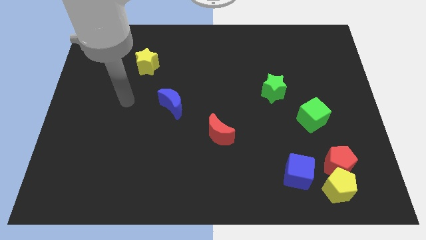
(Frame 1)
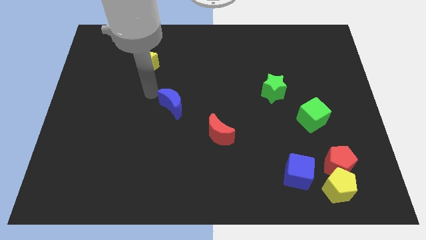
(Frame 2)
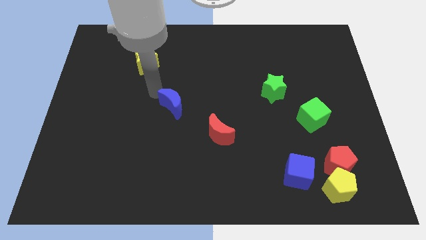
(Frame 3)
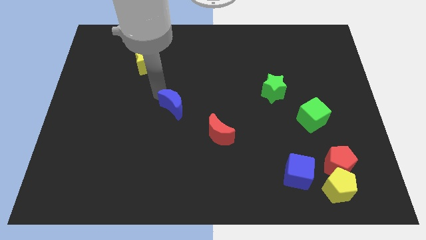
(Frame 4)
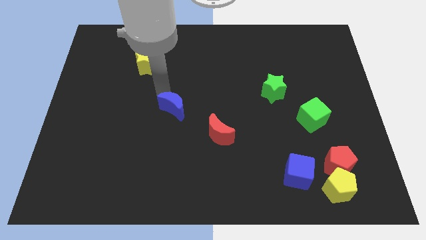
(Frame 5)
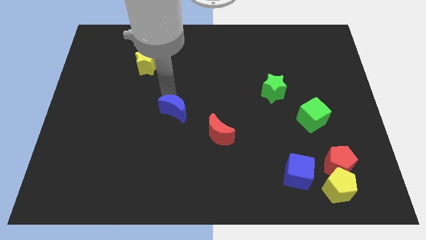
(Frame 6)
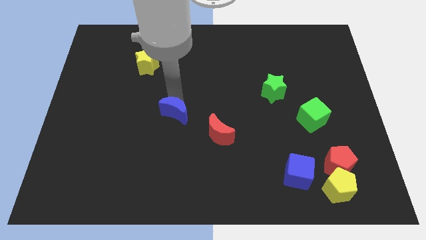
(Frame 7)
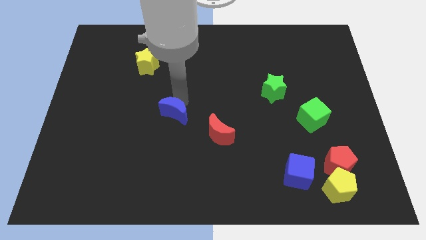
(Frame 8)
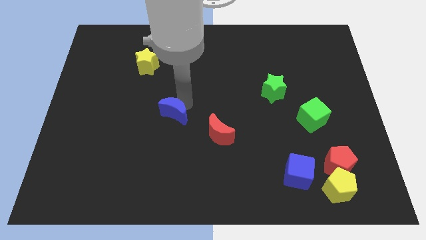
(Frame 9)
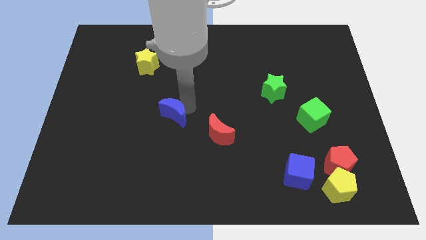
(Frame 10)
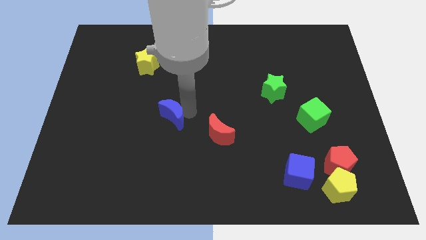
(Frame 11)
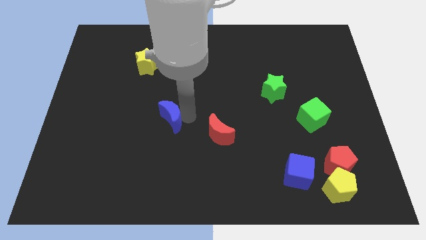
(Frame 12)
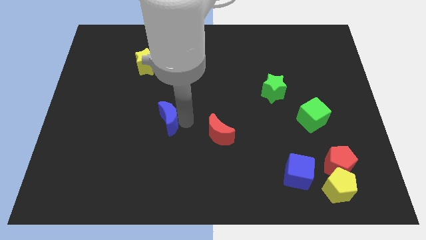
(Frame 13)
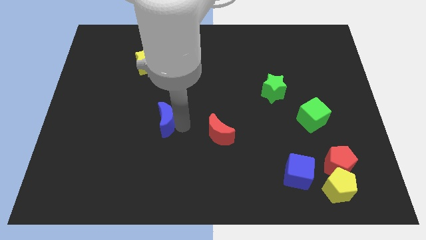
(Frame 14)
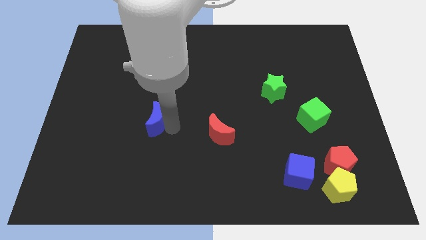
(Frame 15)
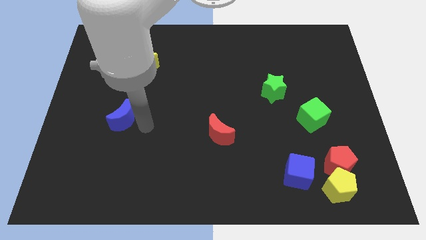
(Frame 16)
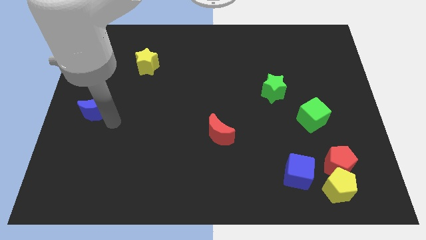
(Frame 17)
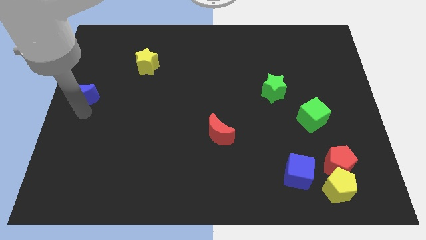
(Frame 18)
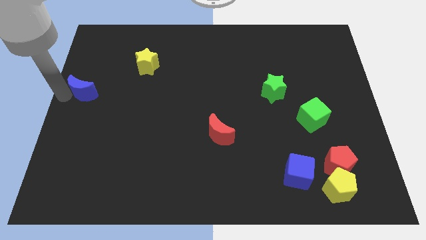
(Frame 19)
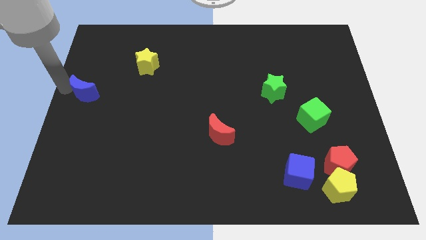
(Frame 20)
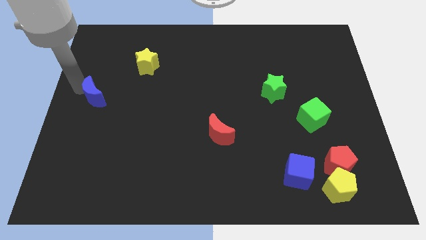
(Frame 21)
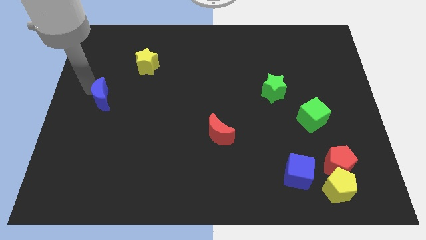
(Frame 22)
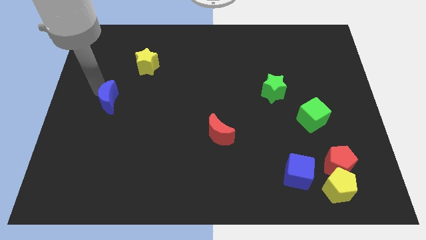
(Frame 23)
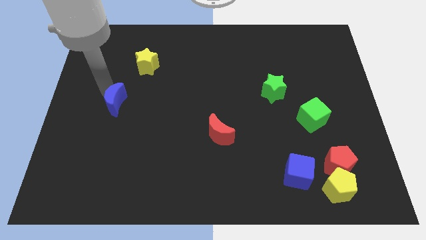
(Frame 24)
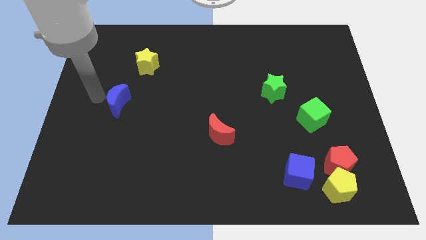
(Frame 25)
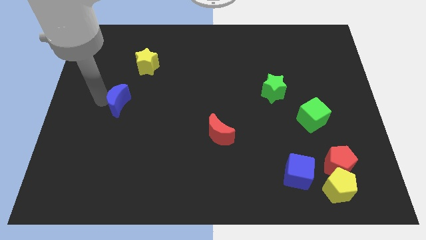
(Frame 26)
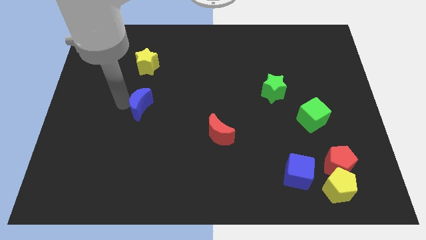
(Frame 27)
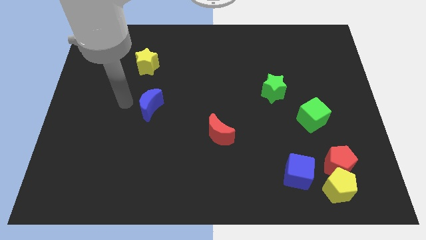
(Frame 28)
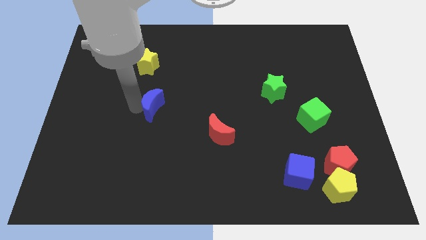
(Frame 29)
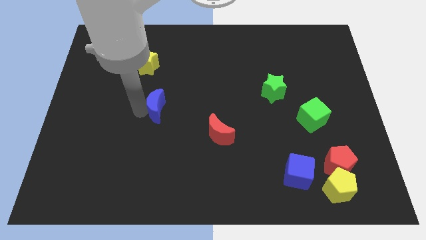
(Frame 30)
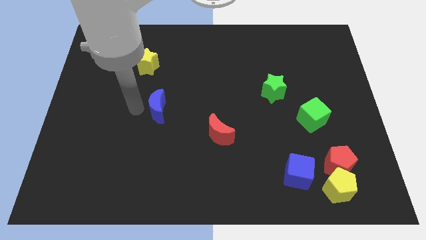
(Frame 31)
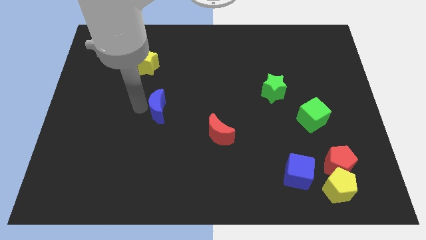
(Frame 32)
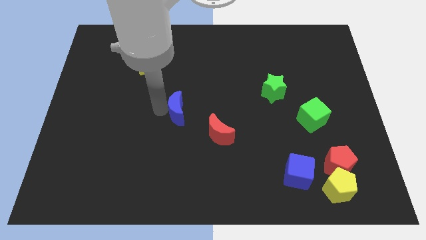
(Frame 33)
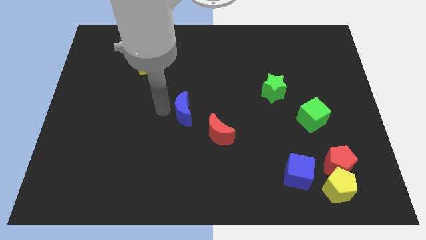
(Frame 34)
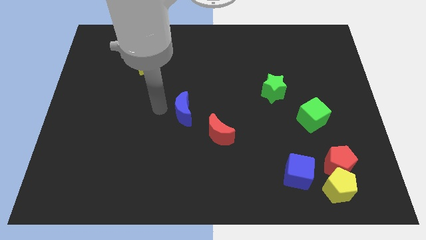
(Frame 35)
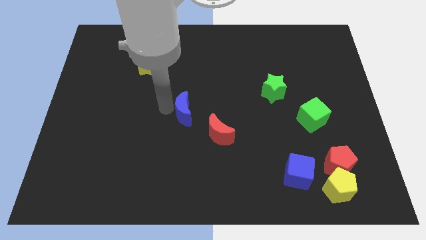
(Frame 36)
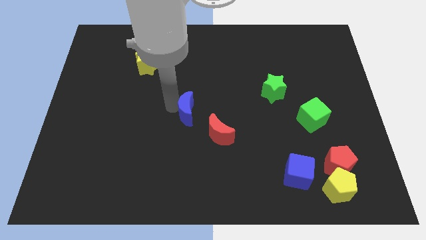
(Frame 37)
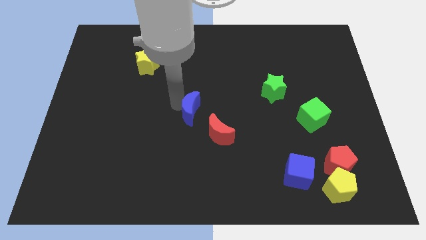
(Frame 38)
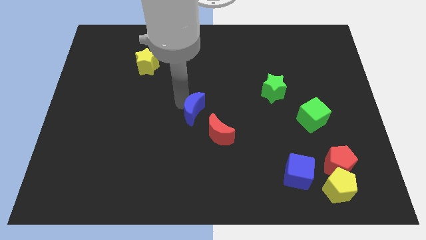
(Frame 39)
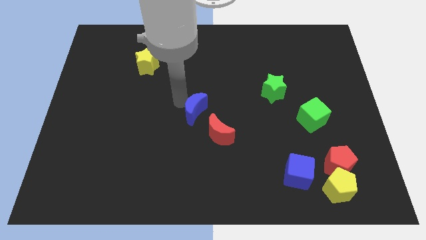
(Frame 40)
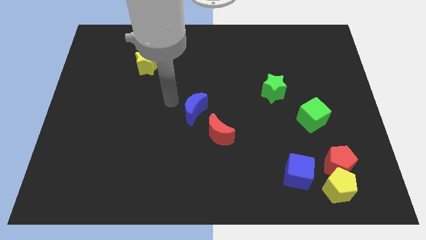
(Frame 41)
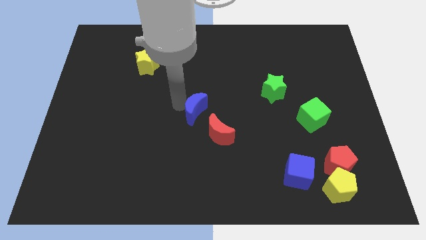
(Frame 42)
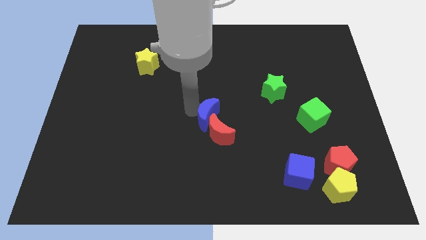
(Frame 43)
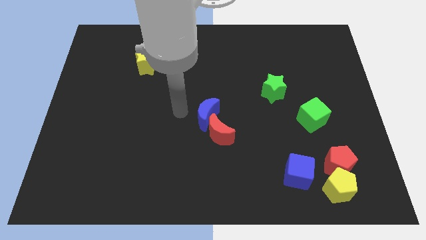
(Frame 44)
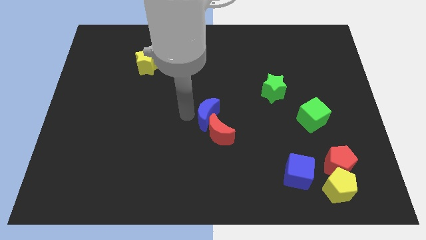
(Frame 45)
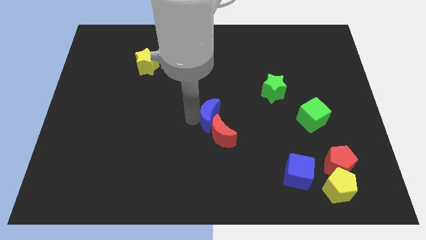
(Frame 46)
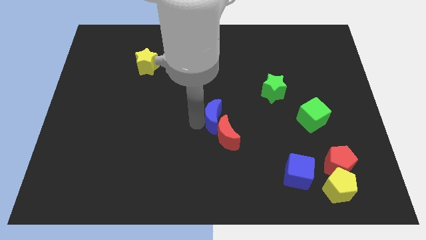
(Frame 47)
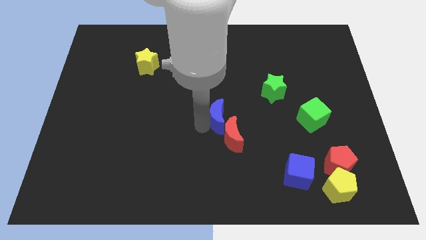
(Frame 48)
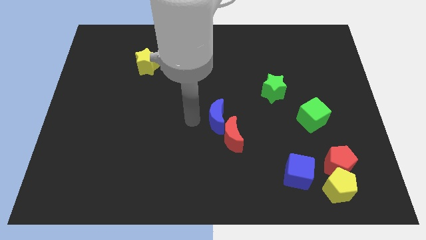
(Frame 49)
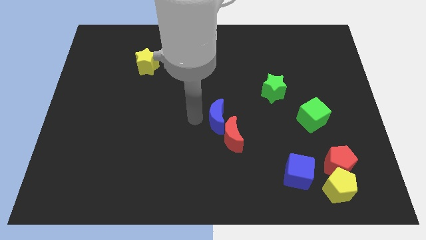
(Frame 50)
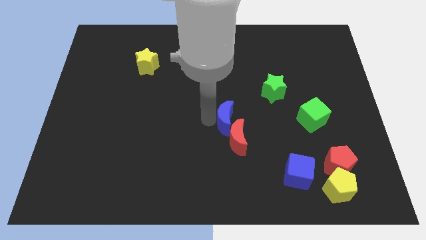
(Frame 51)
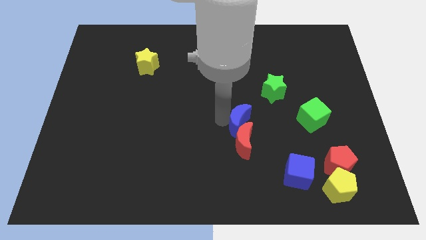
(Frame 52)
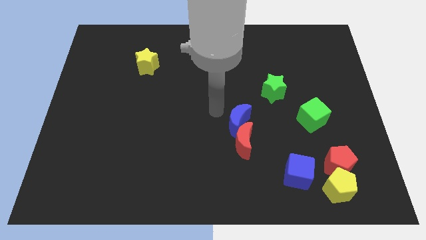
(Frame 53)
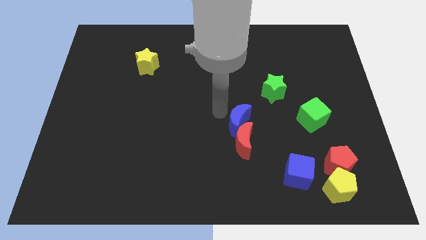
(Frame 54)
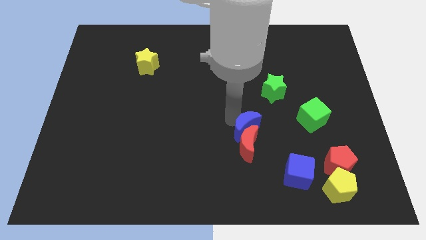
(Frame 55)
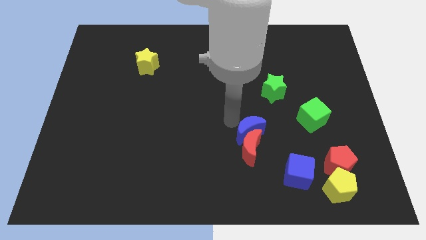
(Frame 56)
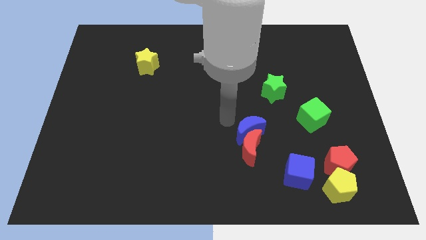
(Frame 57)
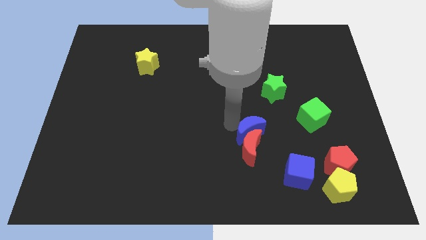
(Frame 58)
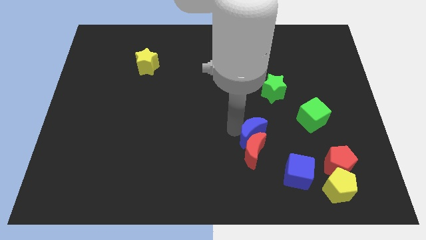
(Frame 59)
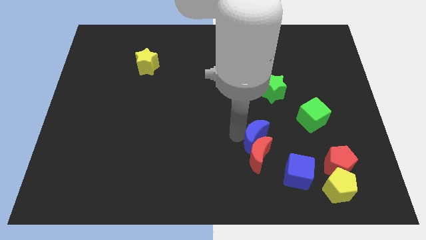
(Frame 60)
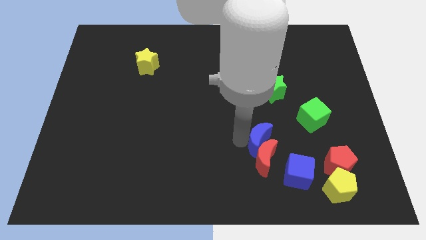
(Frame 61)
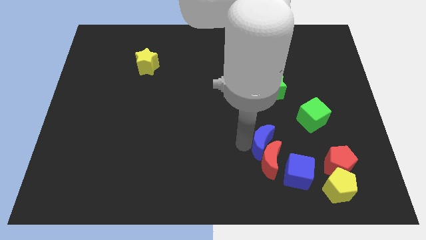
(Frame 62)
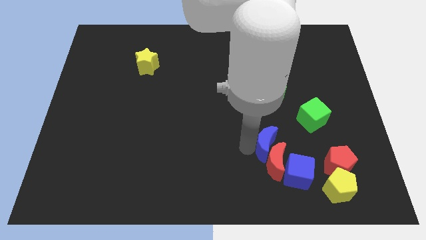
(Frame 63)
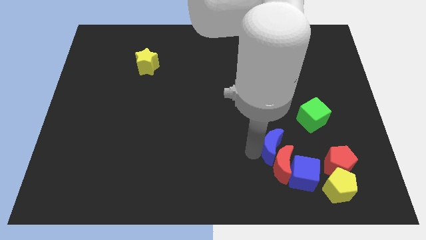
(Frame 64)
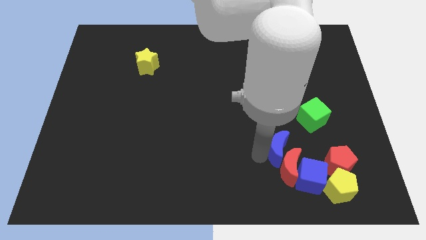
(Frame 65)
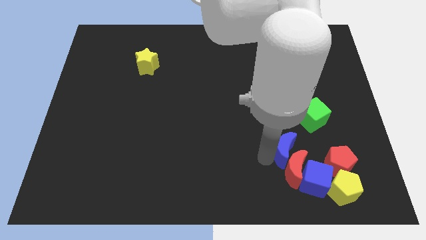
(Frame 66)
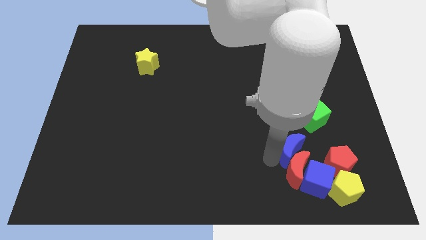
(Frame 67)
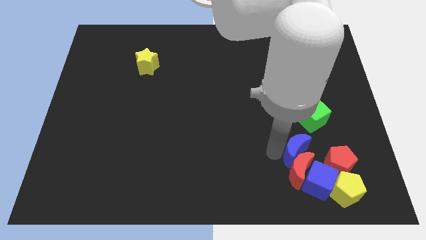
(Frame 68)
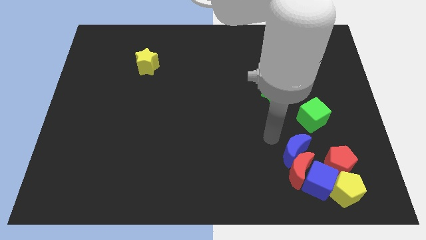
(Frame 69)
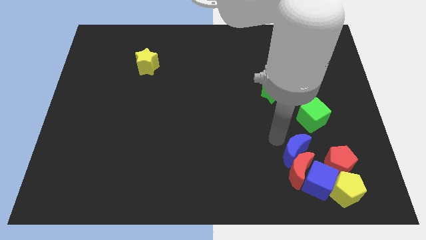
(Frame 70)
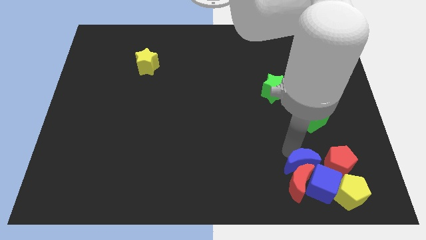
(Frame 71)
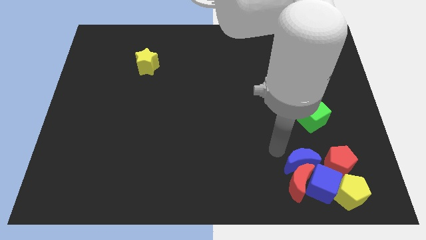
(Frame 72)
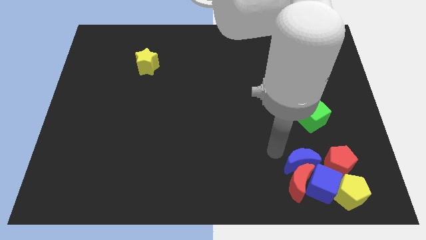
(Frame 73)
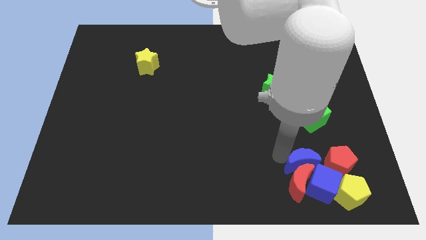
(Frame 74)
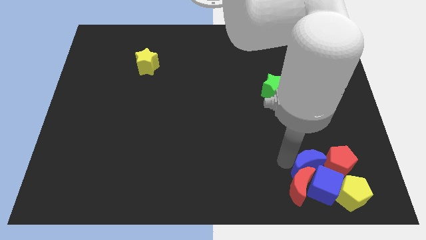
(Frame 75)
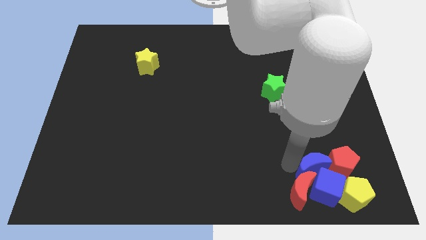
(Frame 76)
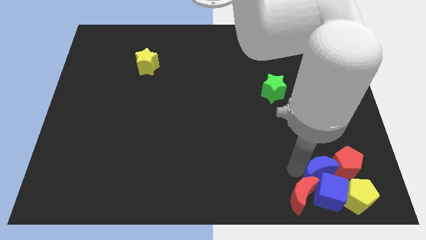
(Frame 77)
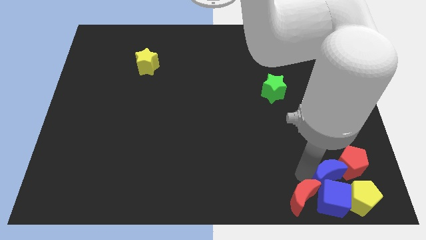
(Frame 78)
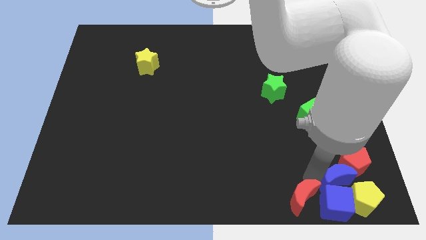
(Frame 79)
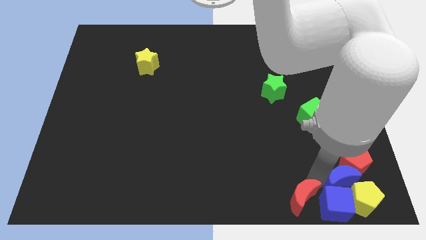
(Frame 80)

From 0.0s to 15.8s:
move the blue moon next to the yellow pentagon
